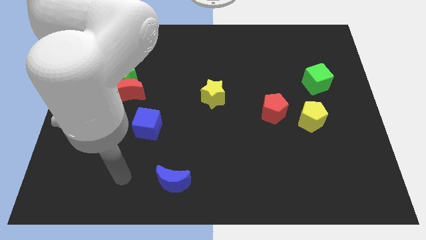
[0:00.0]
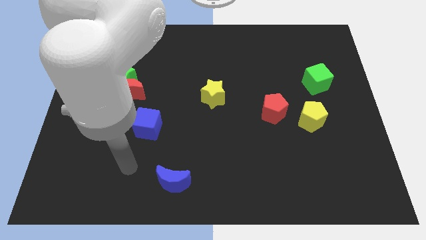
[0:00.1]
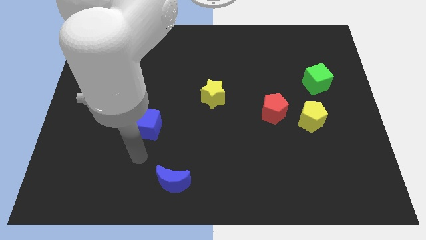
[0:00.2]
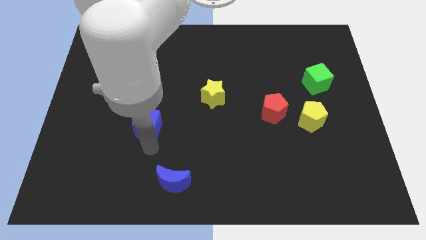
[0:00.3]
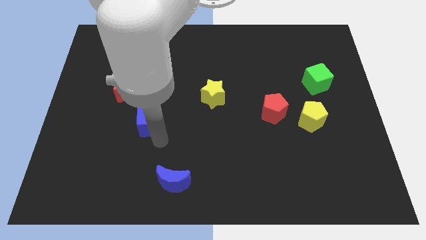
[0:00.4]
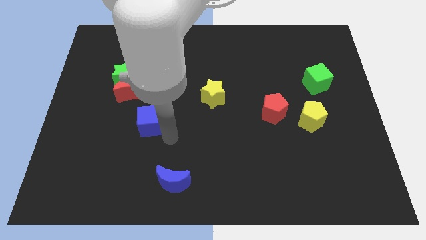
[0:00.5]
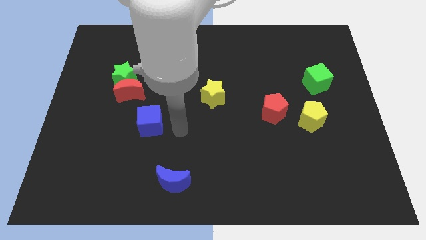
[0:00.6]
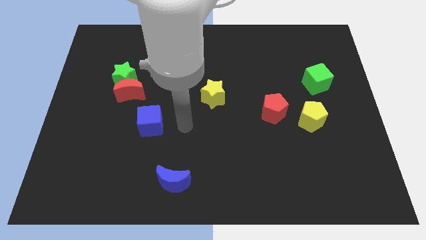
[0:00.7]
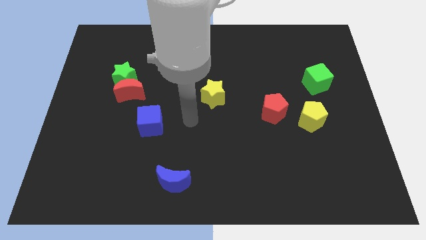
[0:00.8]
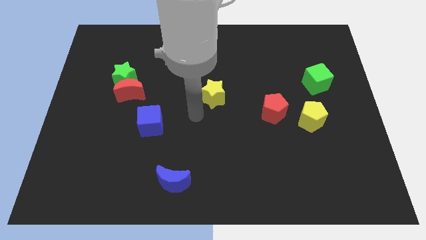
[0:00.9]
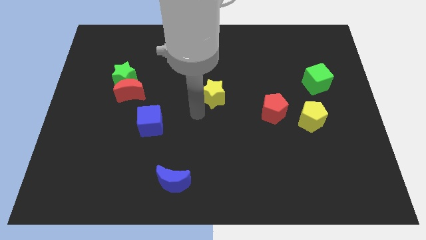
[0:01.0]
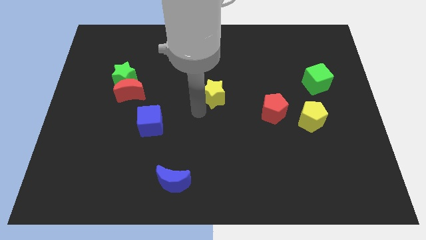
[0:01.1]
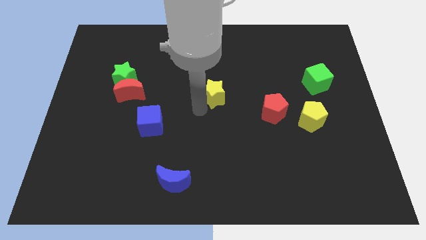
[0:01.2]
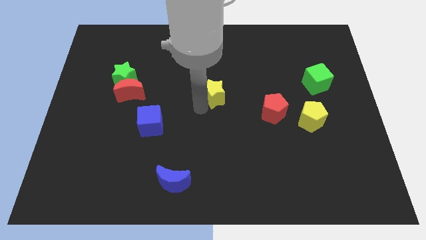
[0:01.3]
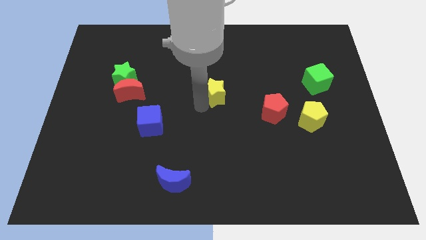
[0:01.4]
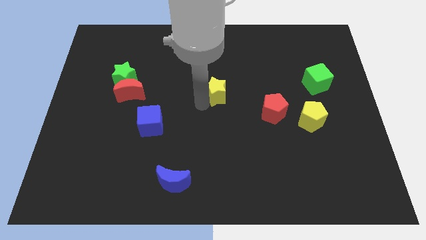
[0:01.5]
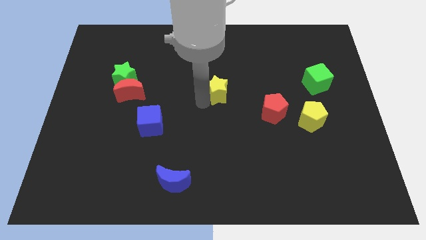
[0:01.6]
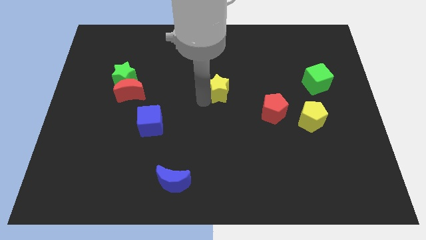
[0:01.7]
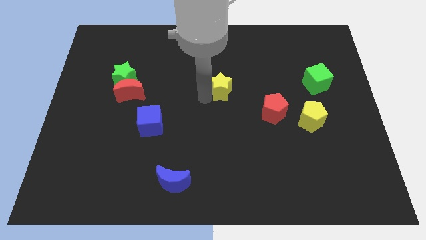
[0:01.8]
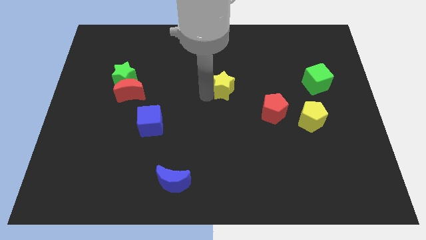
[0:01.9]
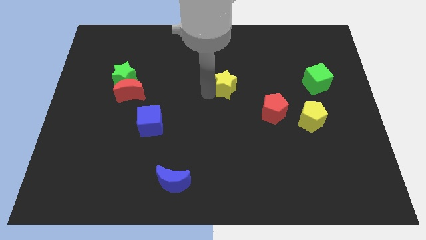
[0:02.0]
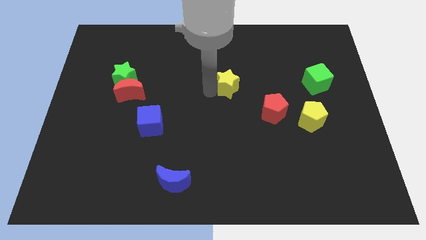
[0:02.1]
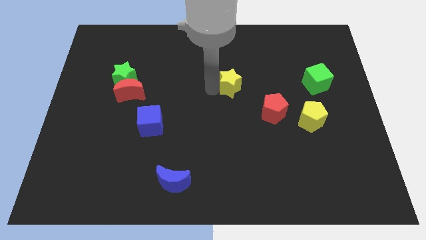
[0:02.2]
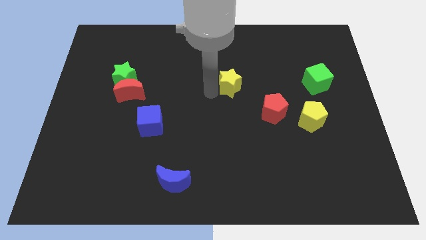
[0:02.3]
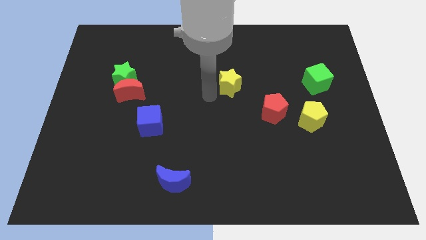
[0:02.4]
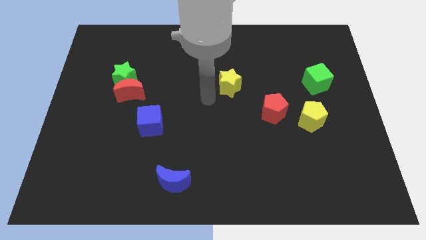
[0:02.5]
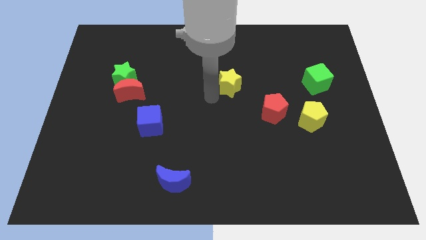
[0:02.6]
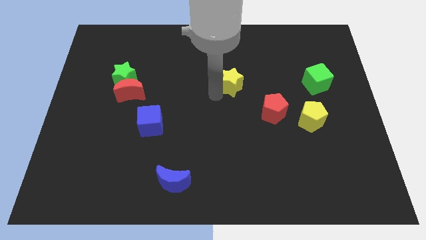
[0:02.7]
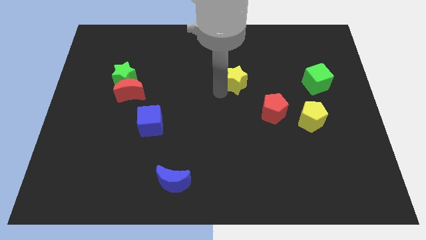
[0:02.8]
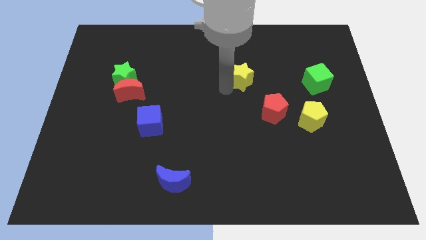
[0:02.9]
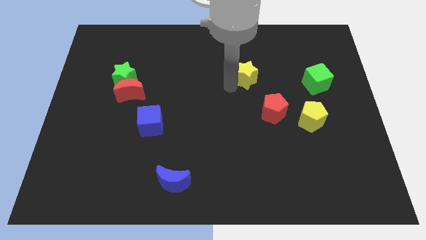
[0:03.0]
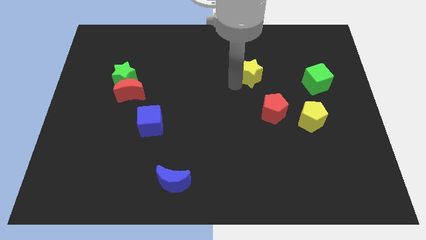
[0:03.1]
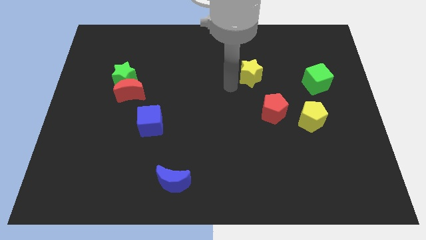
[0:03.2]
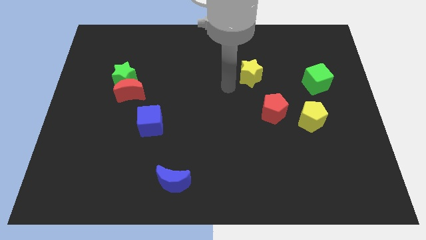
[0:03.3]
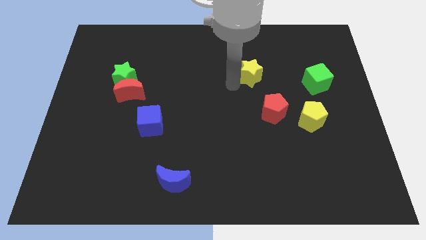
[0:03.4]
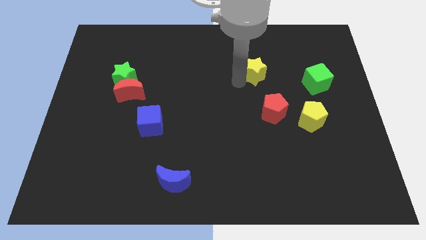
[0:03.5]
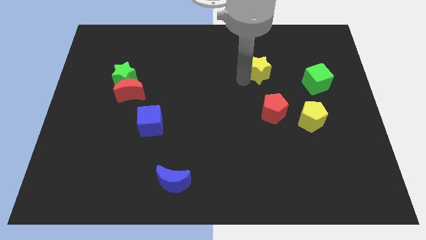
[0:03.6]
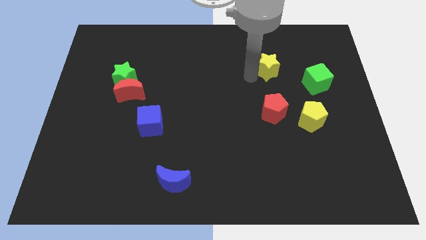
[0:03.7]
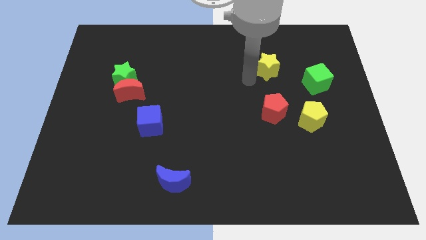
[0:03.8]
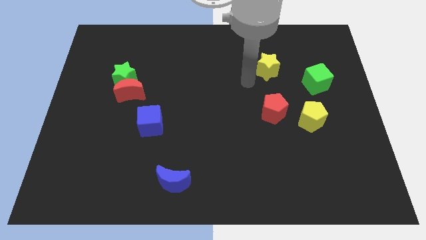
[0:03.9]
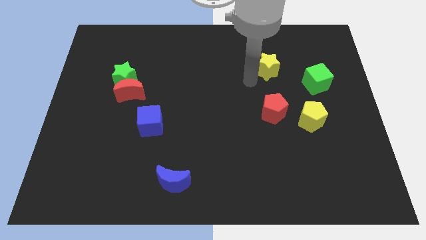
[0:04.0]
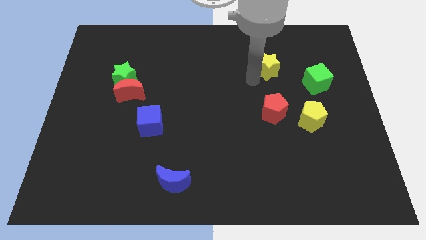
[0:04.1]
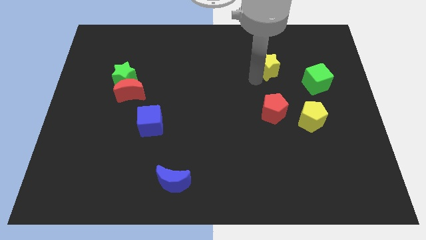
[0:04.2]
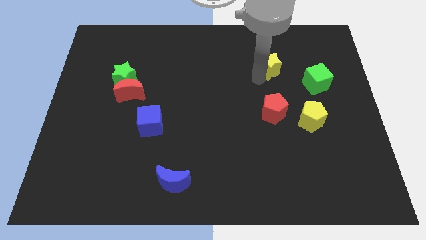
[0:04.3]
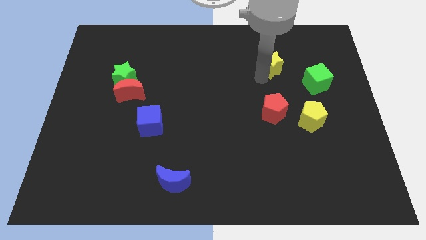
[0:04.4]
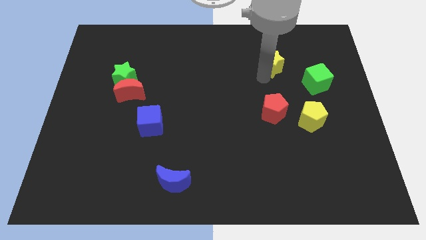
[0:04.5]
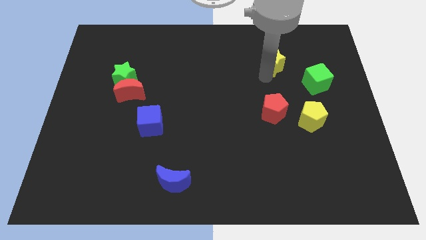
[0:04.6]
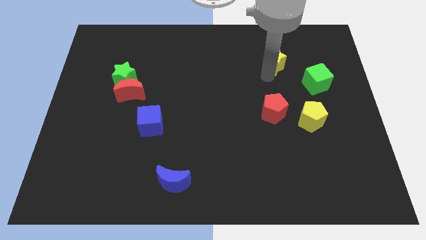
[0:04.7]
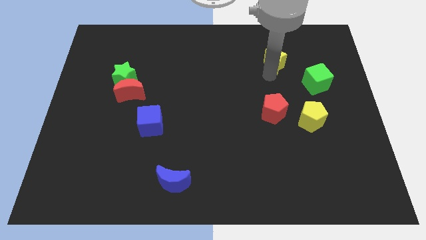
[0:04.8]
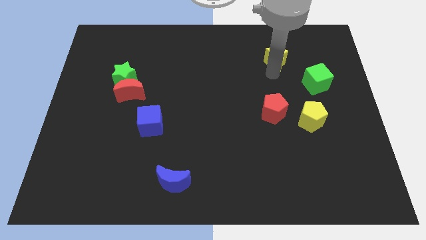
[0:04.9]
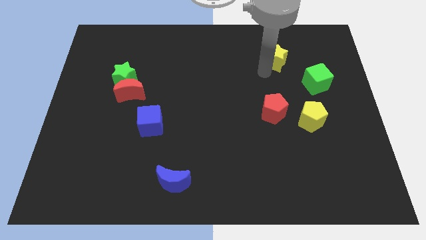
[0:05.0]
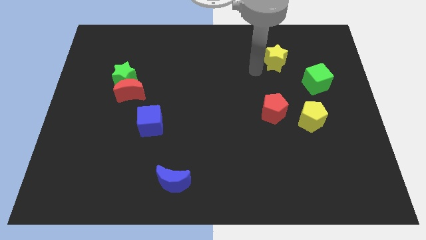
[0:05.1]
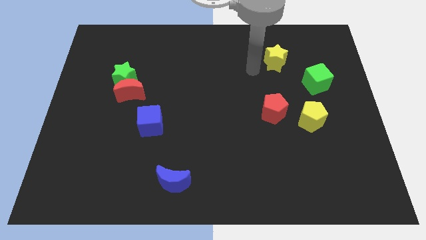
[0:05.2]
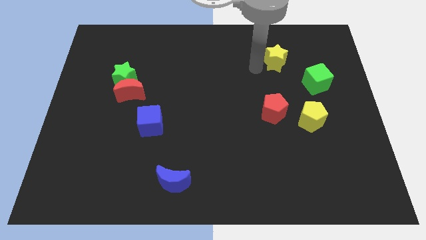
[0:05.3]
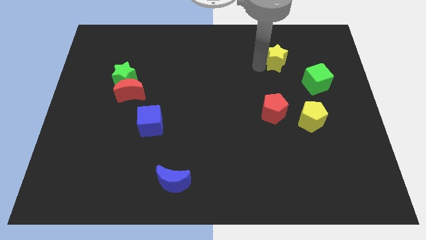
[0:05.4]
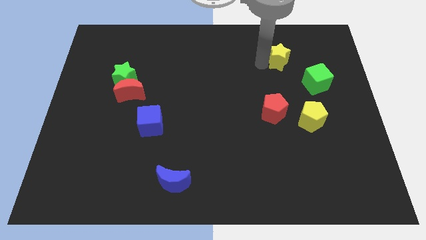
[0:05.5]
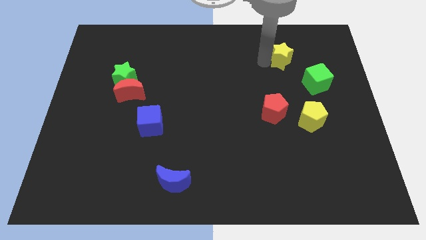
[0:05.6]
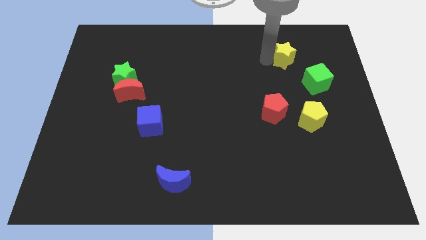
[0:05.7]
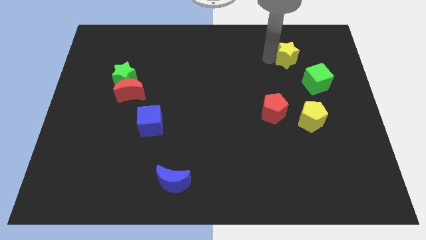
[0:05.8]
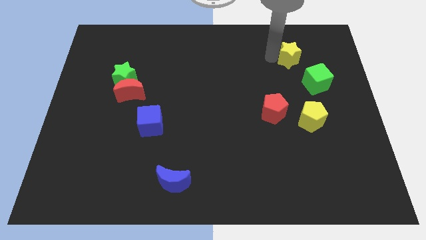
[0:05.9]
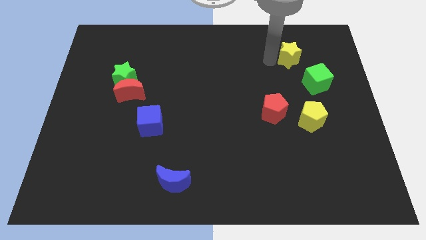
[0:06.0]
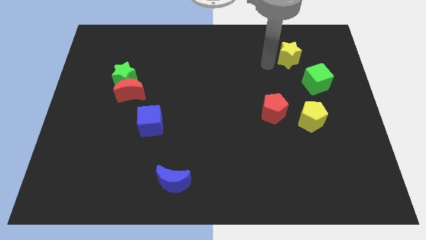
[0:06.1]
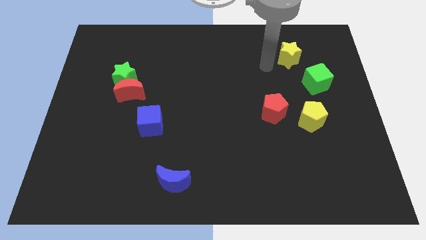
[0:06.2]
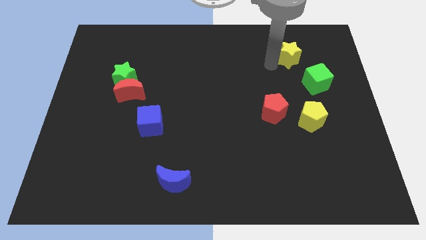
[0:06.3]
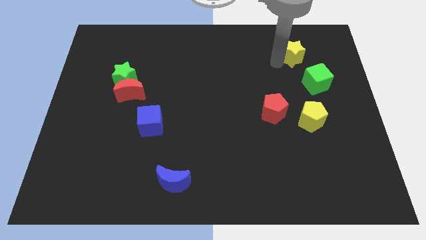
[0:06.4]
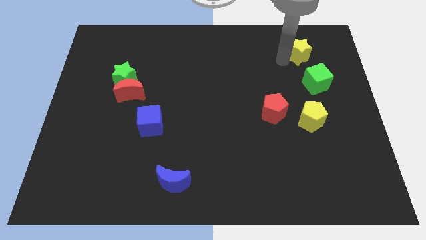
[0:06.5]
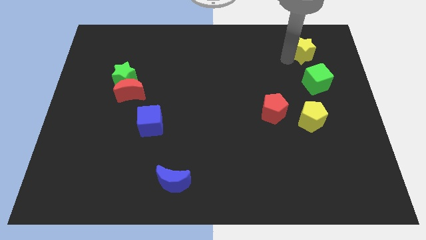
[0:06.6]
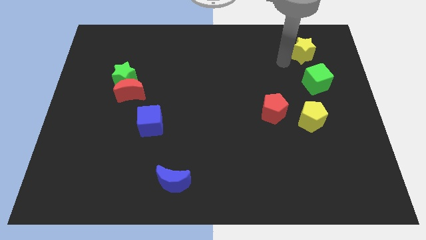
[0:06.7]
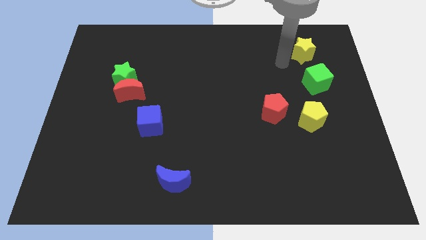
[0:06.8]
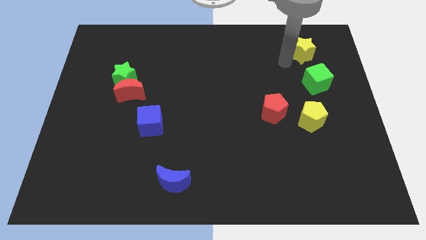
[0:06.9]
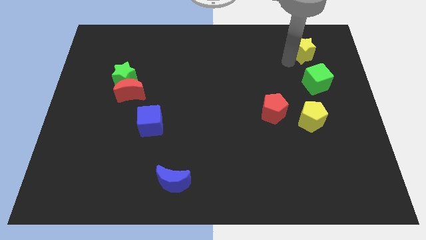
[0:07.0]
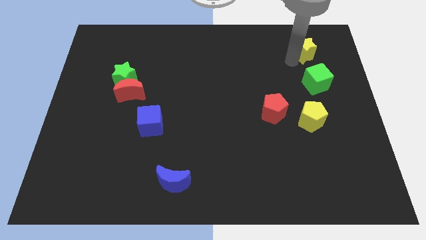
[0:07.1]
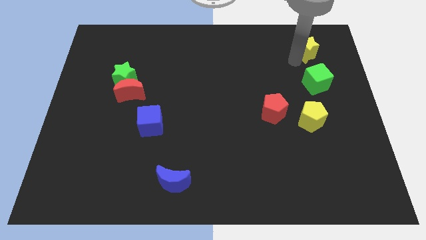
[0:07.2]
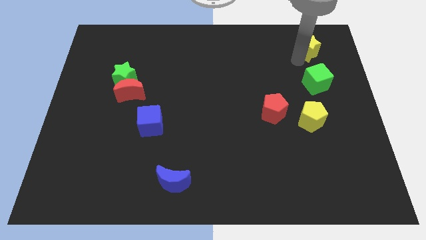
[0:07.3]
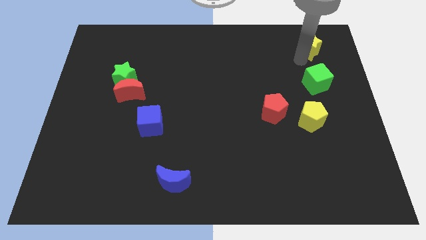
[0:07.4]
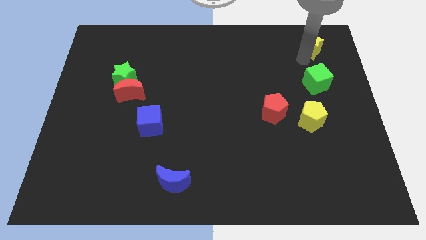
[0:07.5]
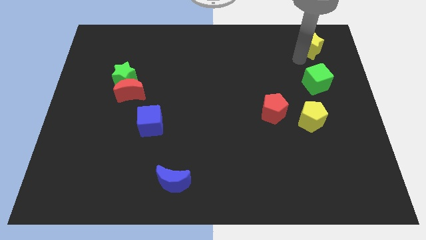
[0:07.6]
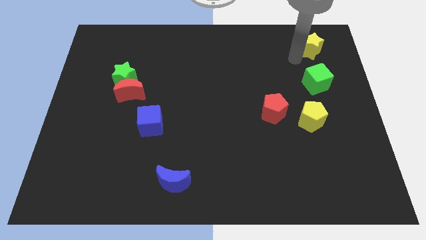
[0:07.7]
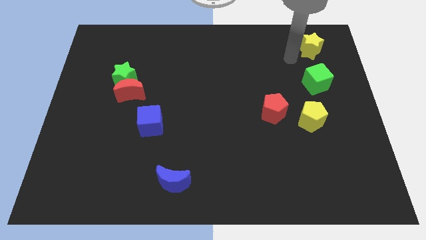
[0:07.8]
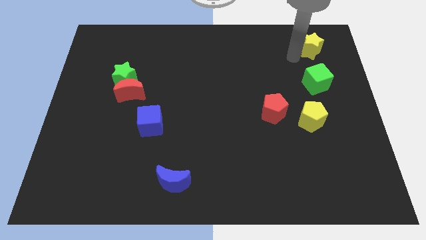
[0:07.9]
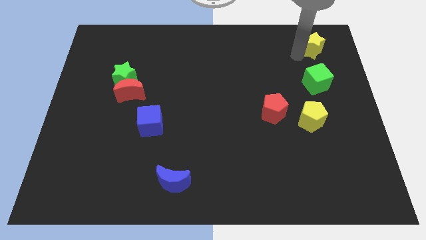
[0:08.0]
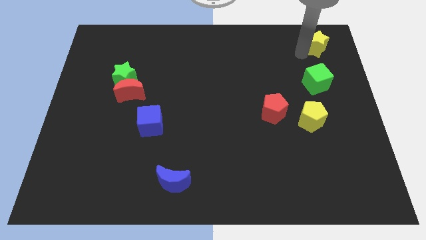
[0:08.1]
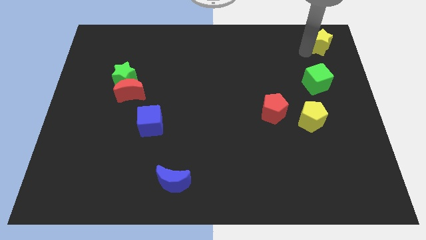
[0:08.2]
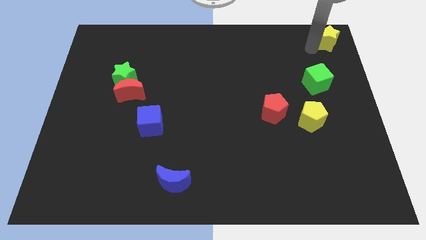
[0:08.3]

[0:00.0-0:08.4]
put the yellow star to the top right corner
